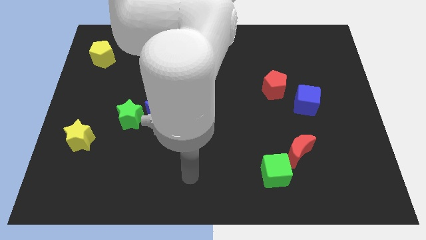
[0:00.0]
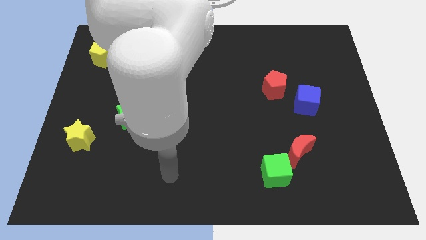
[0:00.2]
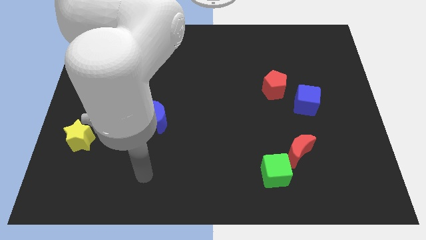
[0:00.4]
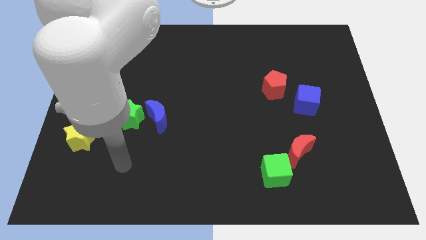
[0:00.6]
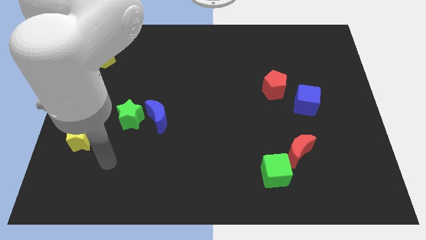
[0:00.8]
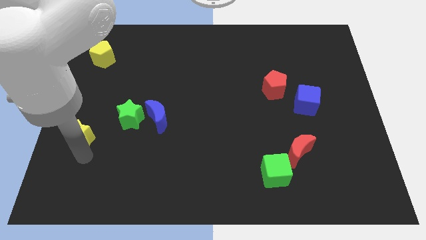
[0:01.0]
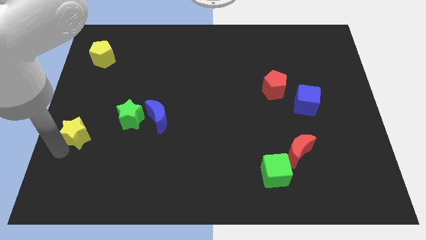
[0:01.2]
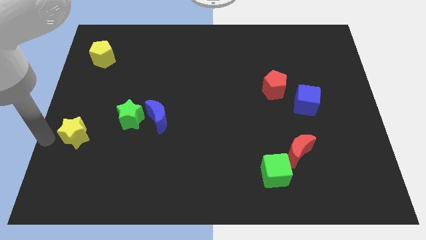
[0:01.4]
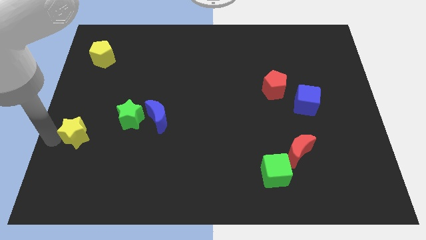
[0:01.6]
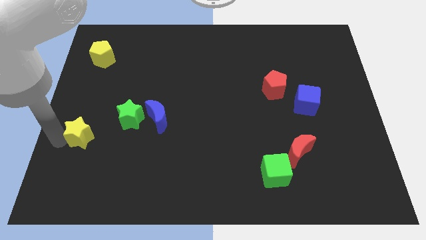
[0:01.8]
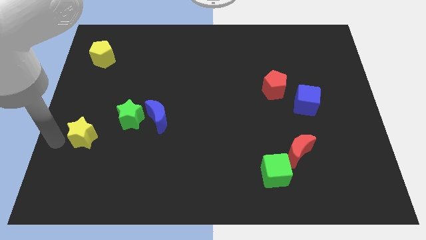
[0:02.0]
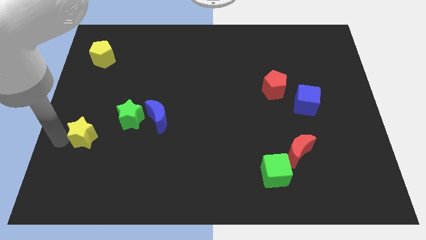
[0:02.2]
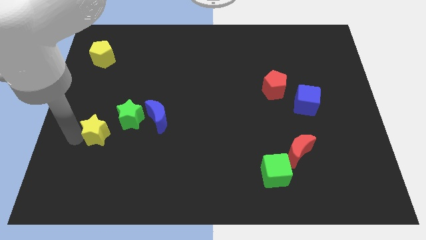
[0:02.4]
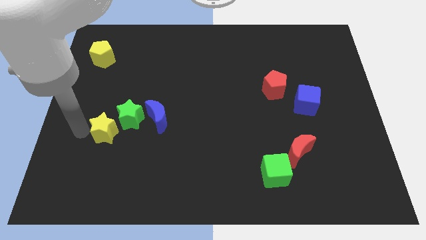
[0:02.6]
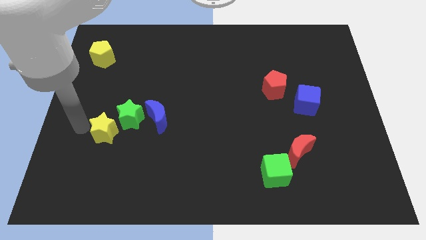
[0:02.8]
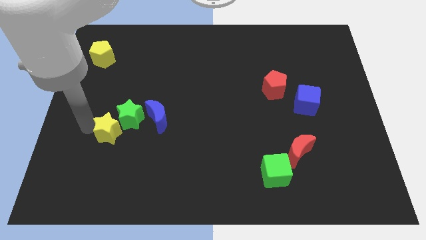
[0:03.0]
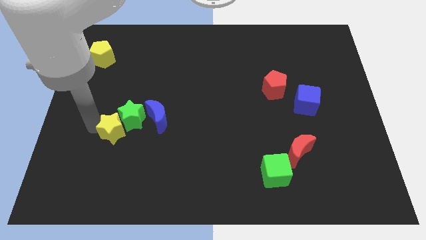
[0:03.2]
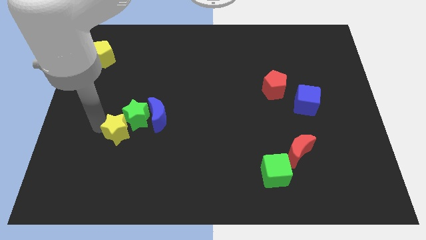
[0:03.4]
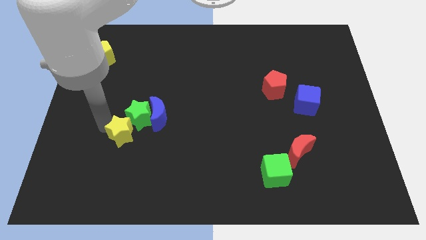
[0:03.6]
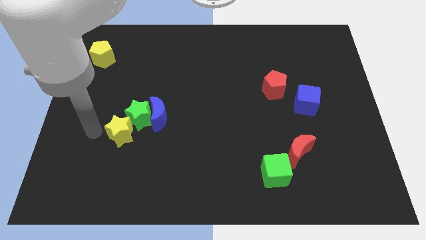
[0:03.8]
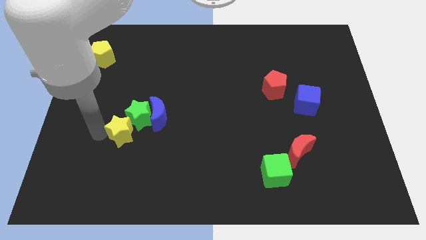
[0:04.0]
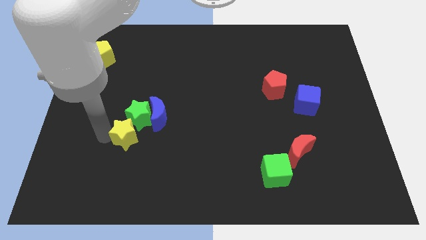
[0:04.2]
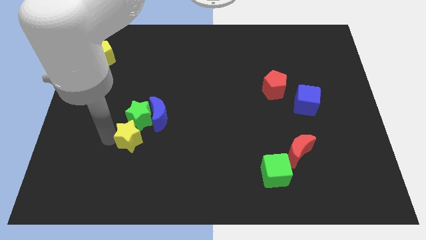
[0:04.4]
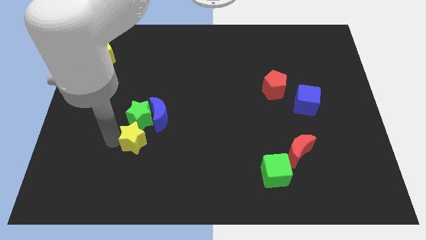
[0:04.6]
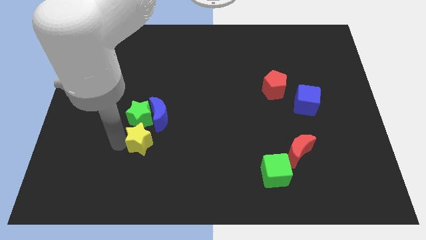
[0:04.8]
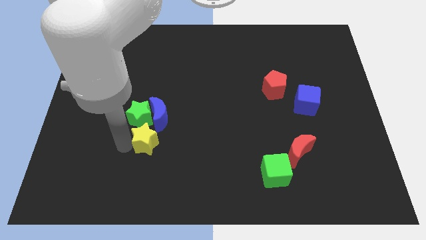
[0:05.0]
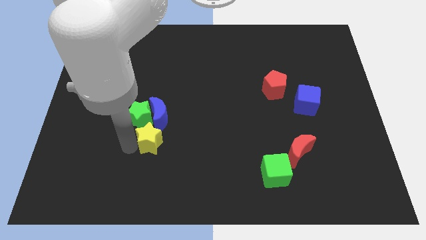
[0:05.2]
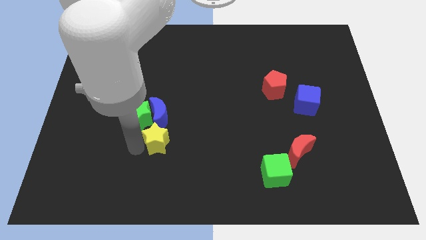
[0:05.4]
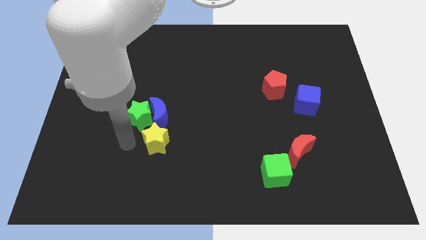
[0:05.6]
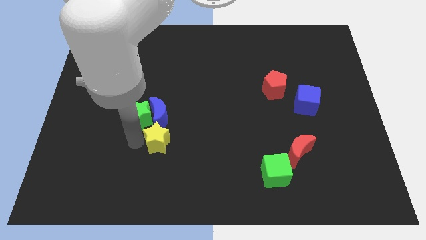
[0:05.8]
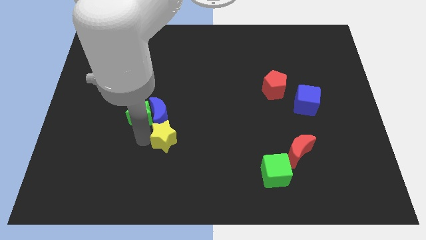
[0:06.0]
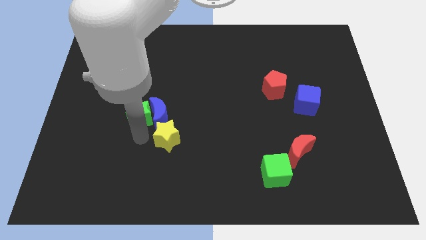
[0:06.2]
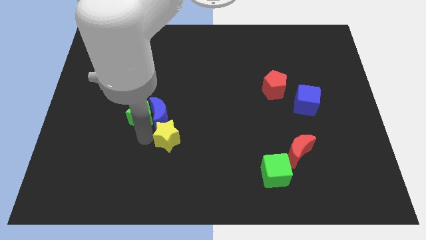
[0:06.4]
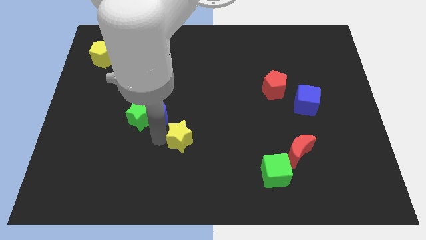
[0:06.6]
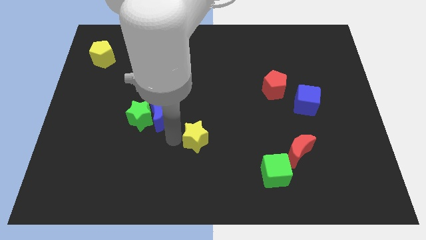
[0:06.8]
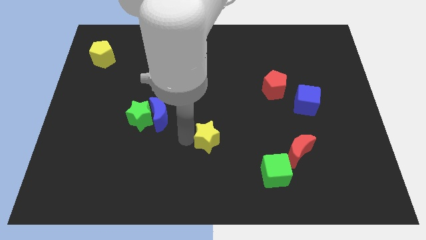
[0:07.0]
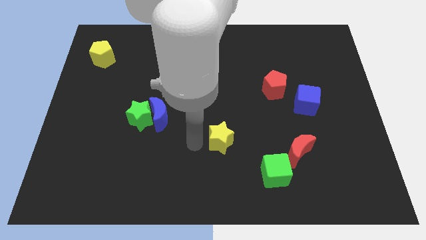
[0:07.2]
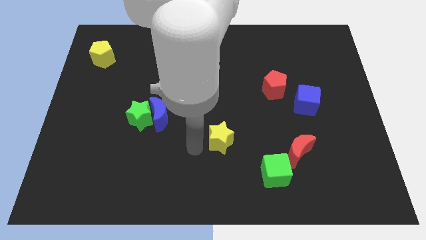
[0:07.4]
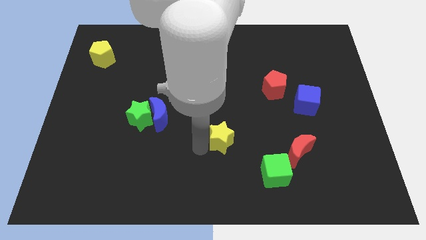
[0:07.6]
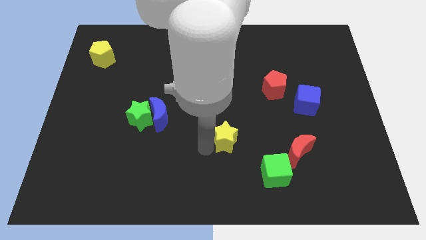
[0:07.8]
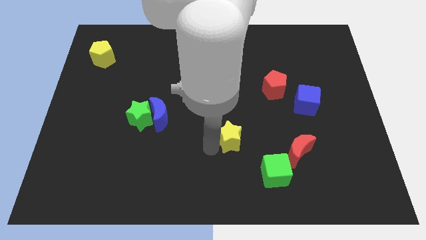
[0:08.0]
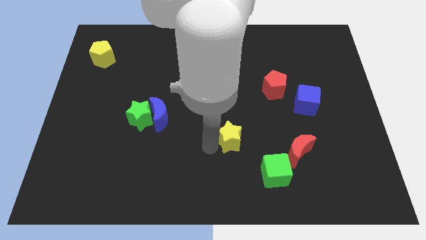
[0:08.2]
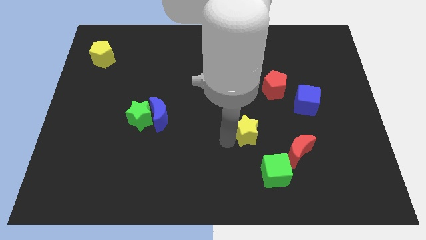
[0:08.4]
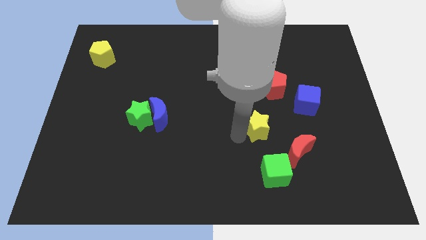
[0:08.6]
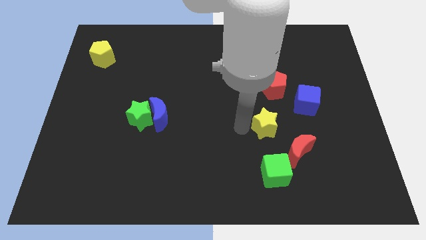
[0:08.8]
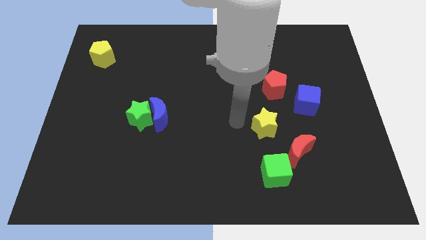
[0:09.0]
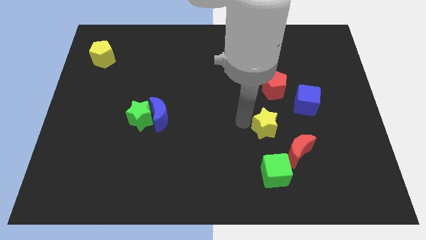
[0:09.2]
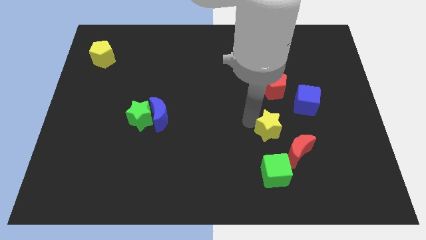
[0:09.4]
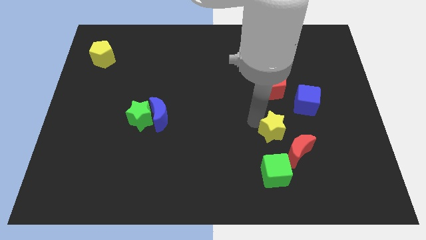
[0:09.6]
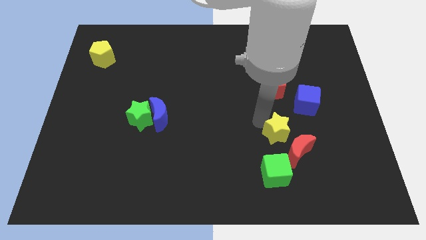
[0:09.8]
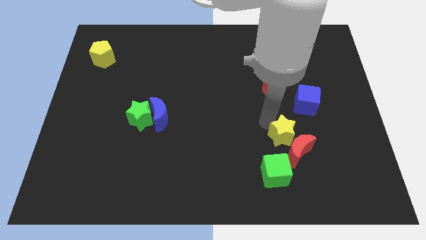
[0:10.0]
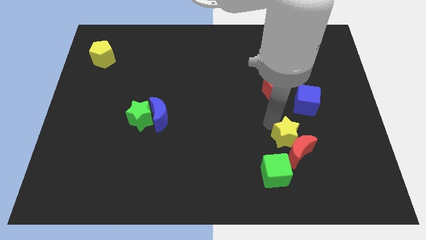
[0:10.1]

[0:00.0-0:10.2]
move the yellow star to the top right of the red moon

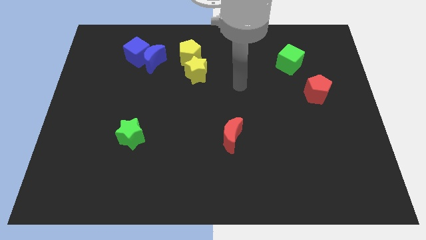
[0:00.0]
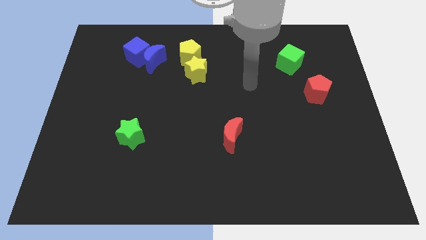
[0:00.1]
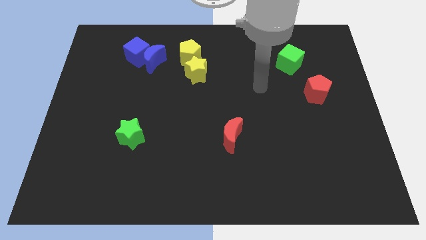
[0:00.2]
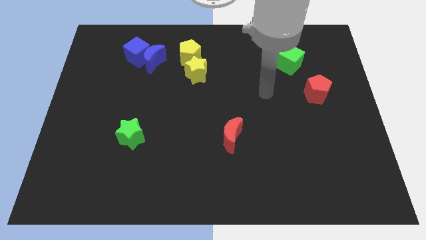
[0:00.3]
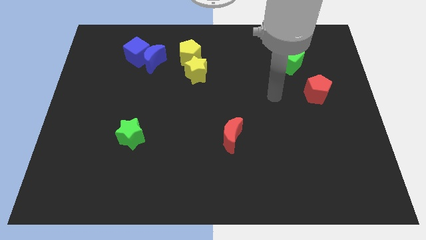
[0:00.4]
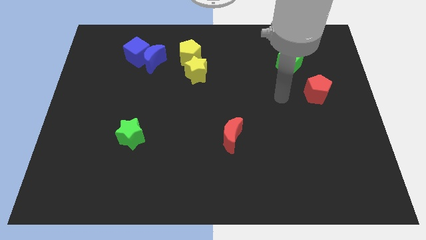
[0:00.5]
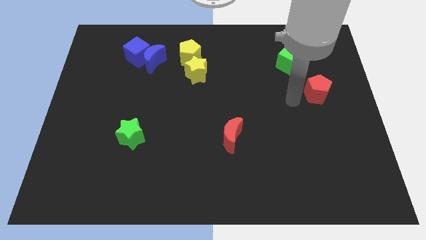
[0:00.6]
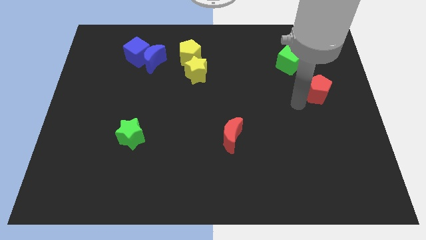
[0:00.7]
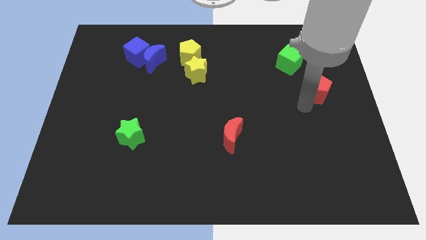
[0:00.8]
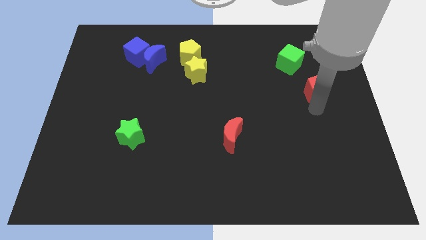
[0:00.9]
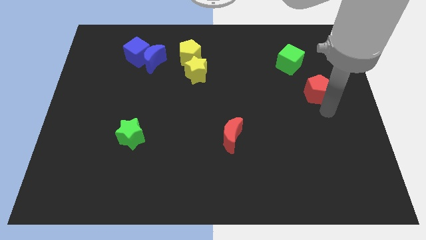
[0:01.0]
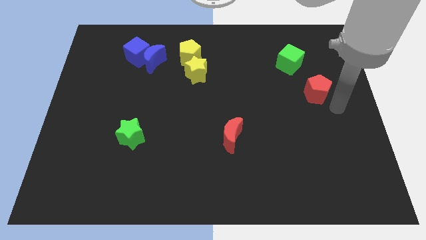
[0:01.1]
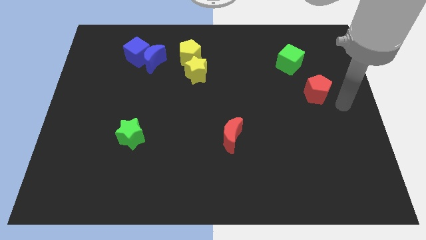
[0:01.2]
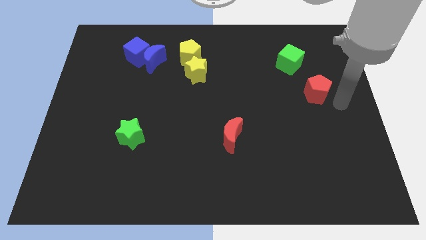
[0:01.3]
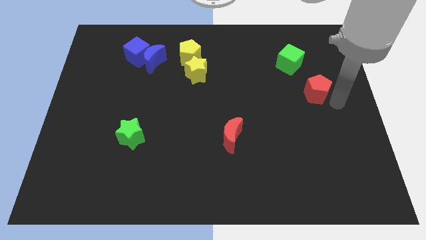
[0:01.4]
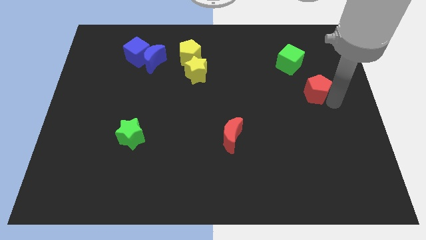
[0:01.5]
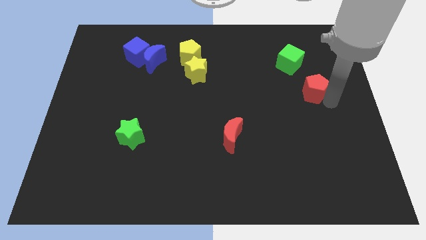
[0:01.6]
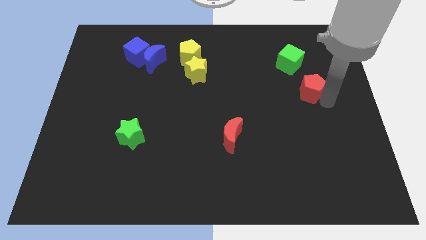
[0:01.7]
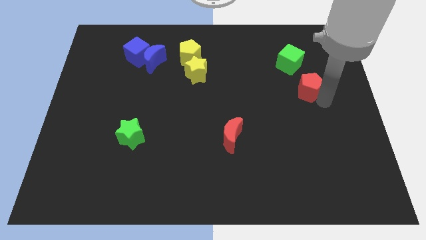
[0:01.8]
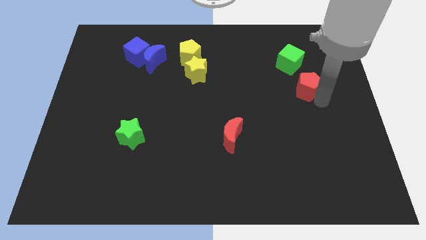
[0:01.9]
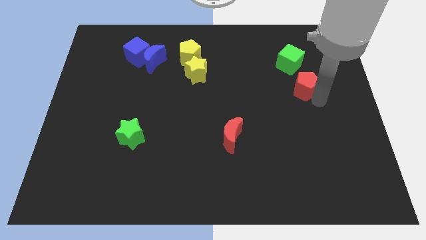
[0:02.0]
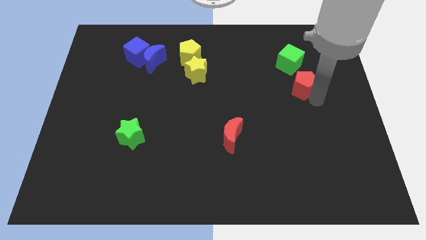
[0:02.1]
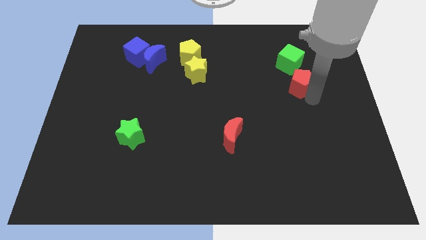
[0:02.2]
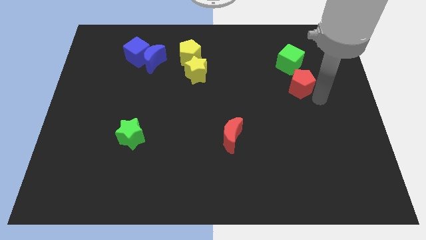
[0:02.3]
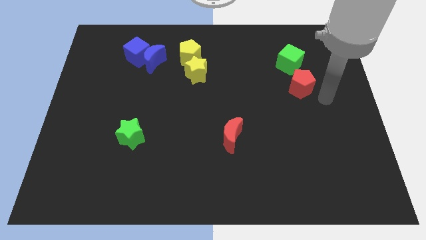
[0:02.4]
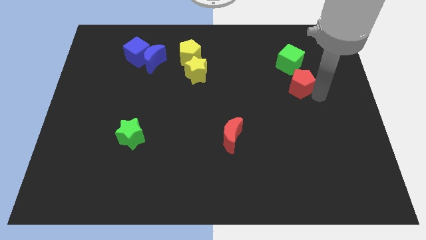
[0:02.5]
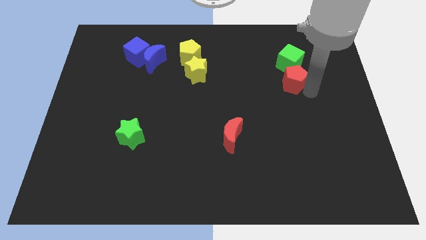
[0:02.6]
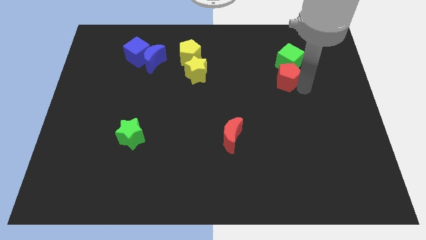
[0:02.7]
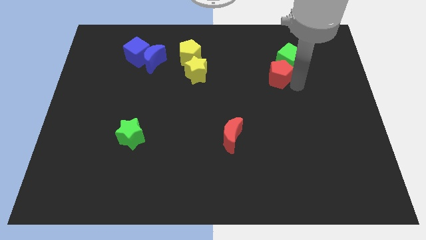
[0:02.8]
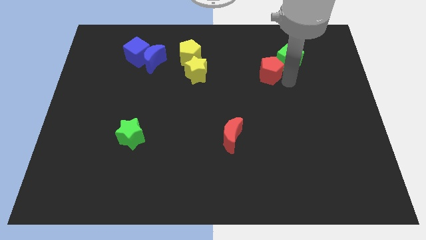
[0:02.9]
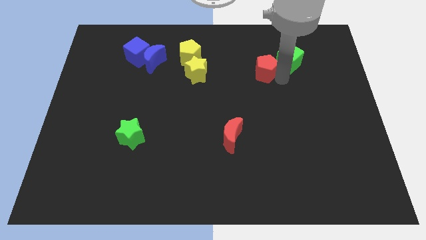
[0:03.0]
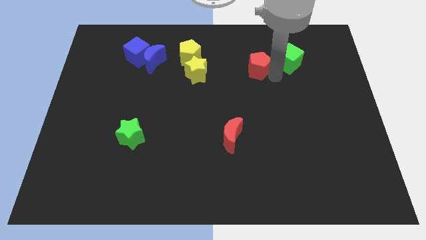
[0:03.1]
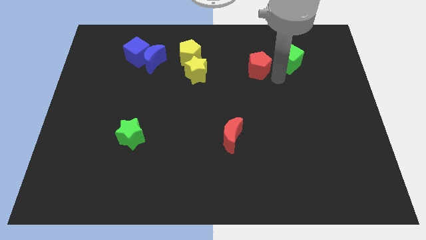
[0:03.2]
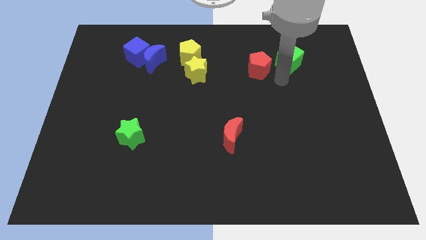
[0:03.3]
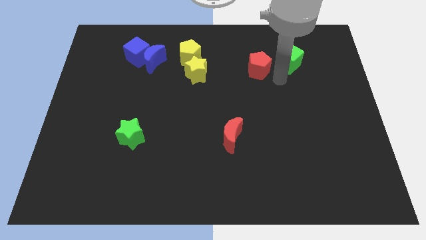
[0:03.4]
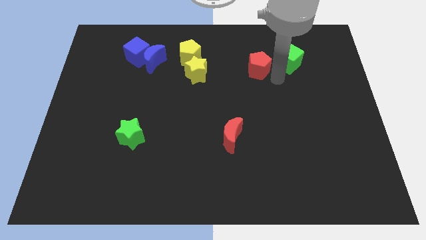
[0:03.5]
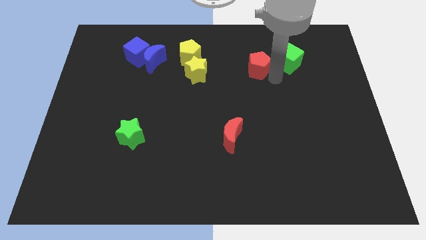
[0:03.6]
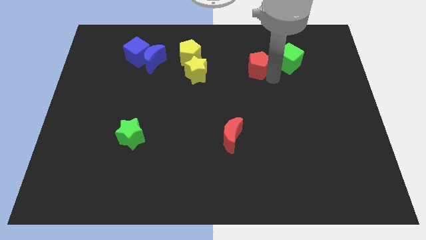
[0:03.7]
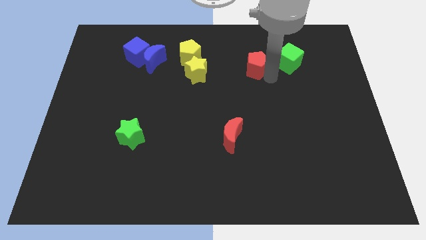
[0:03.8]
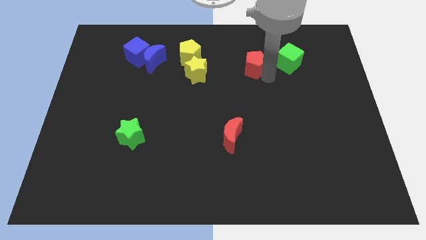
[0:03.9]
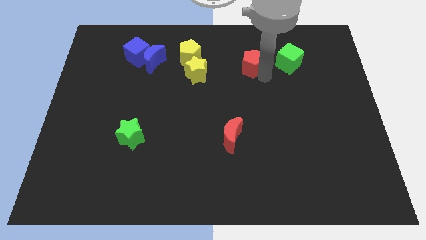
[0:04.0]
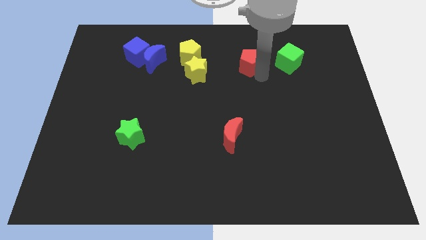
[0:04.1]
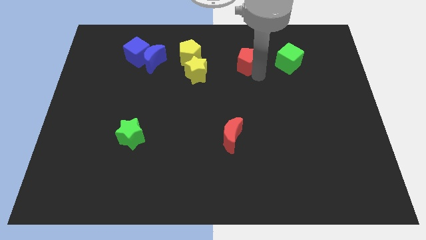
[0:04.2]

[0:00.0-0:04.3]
push the red pentagon to the right side of the yellow pentagon
